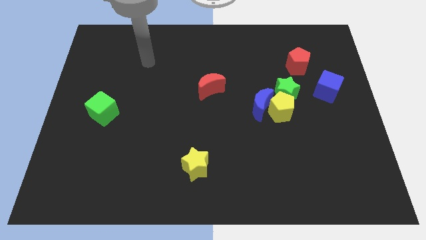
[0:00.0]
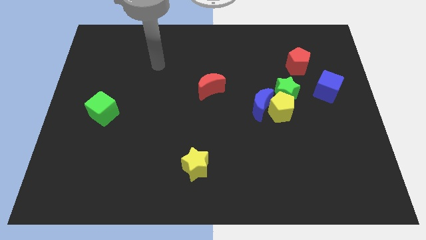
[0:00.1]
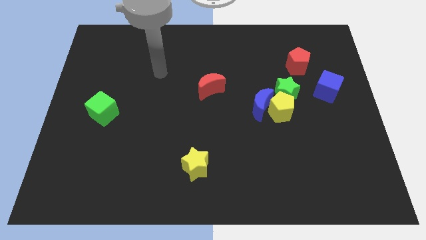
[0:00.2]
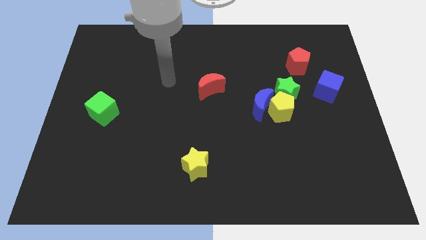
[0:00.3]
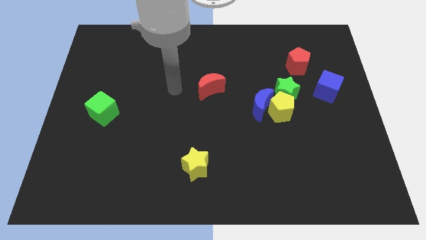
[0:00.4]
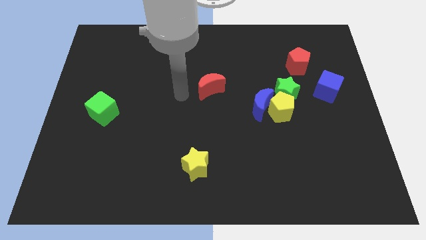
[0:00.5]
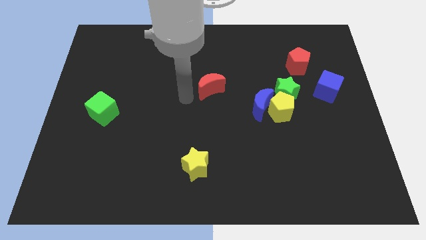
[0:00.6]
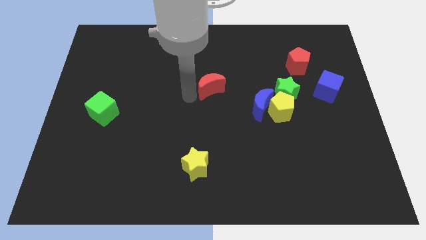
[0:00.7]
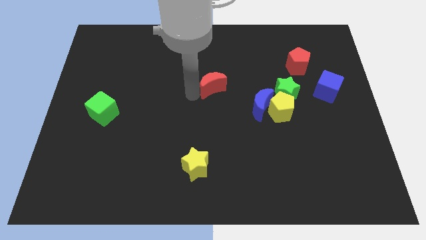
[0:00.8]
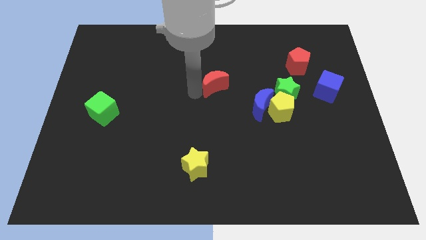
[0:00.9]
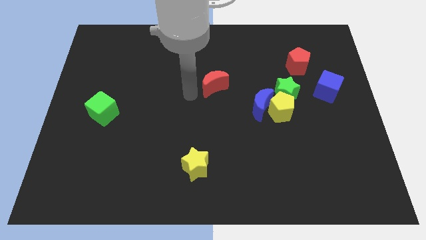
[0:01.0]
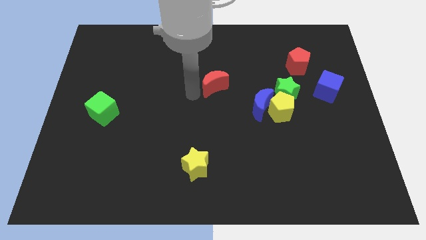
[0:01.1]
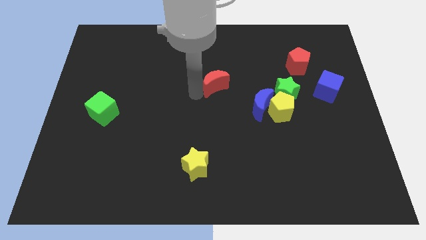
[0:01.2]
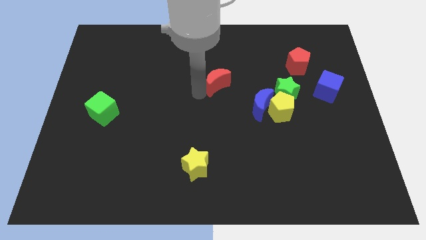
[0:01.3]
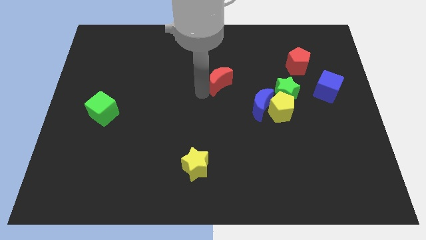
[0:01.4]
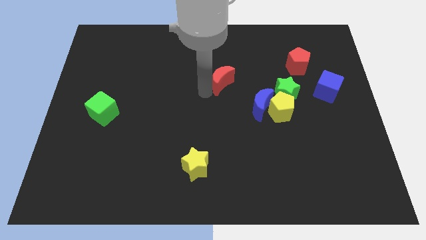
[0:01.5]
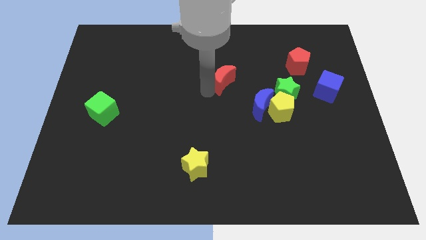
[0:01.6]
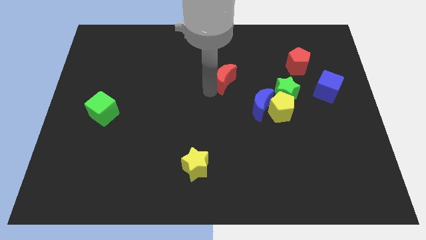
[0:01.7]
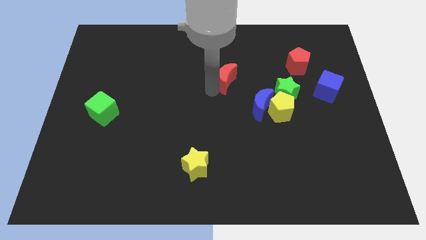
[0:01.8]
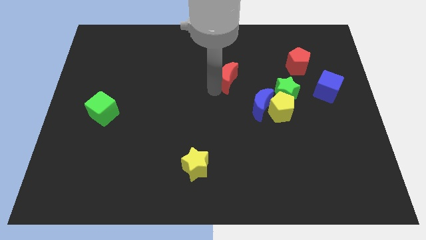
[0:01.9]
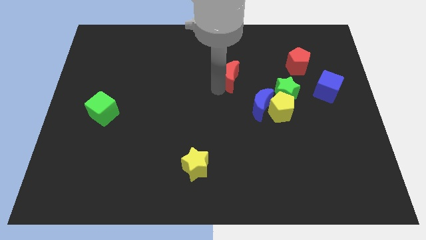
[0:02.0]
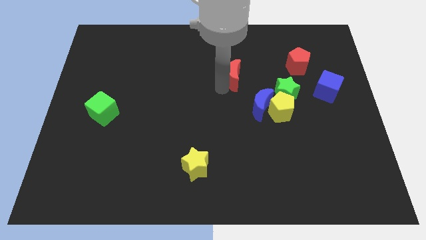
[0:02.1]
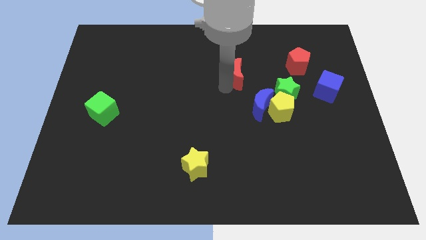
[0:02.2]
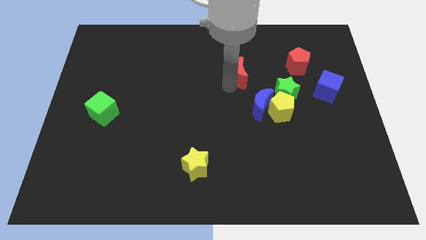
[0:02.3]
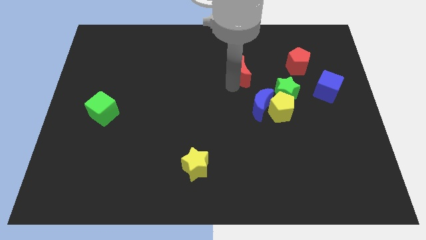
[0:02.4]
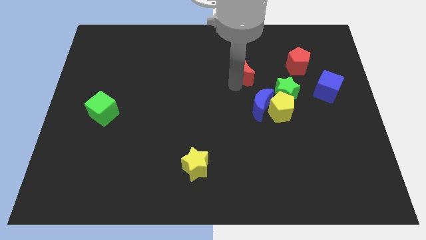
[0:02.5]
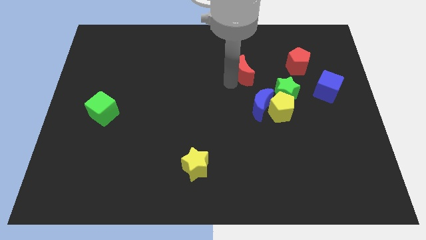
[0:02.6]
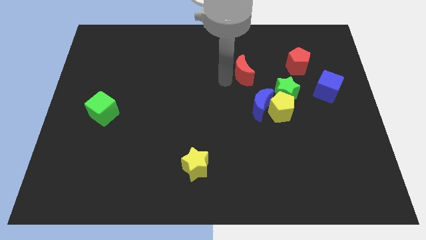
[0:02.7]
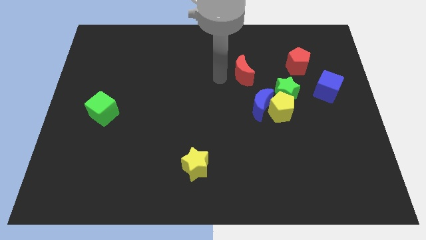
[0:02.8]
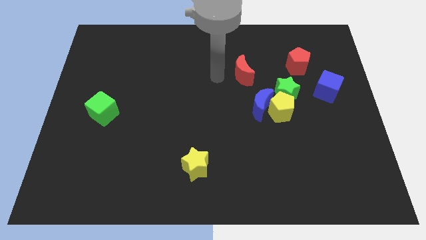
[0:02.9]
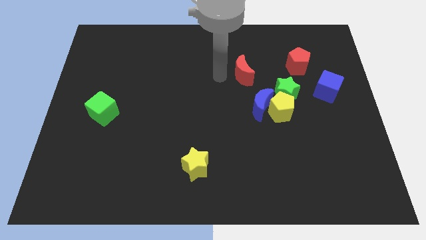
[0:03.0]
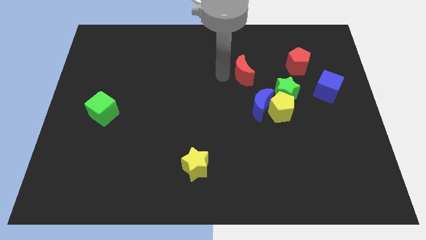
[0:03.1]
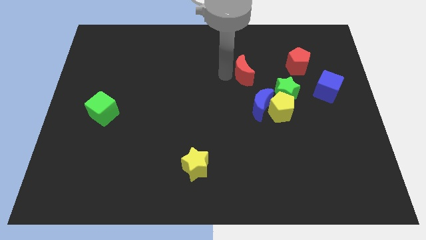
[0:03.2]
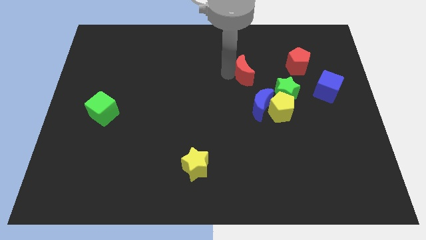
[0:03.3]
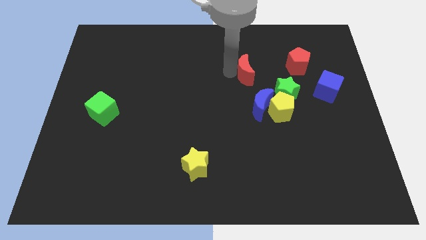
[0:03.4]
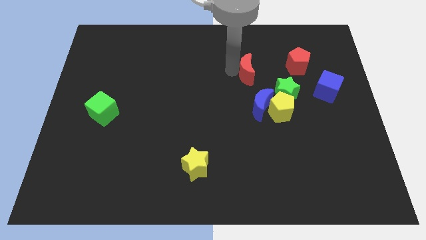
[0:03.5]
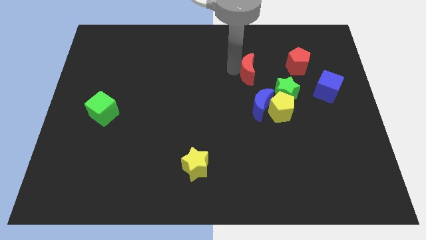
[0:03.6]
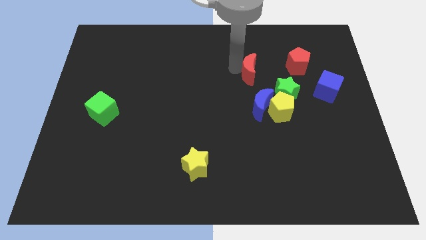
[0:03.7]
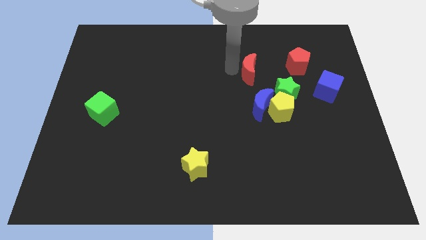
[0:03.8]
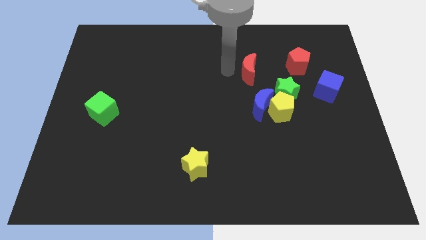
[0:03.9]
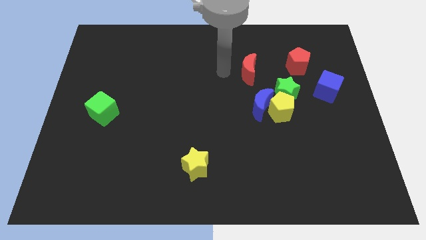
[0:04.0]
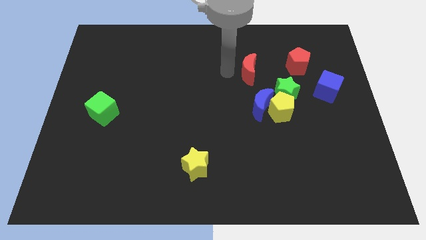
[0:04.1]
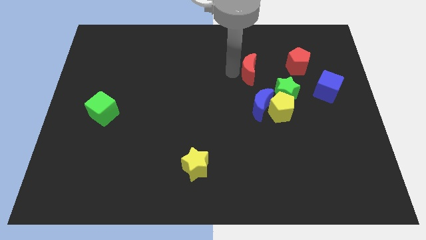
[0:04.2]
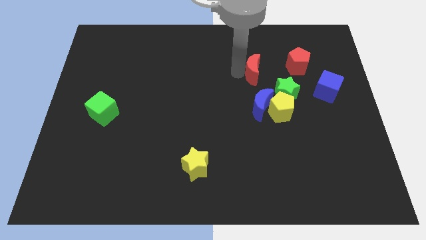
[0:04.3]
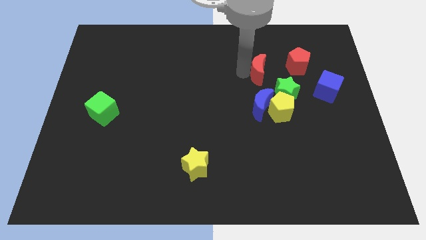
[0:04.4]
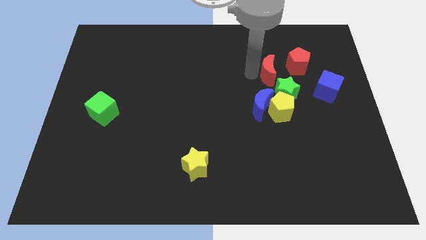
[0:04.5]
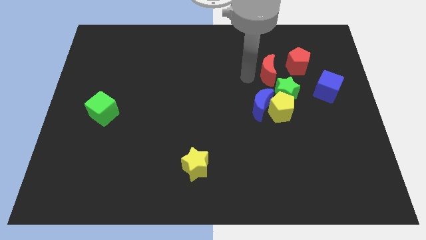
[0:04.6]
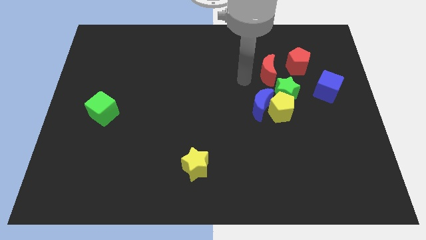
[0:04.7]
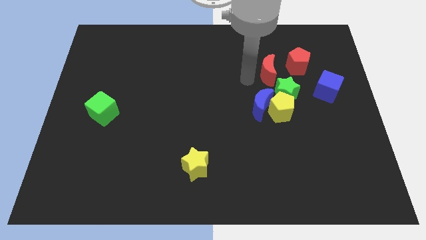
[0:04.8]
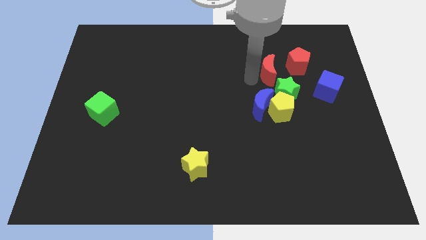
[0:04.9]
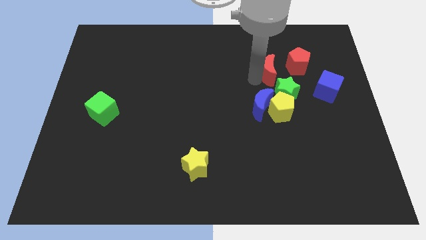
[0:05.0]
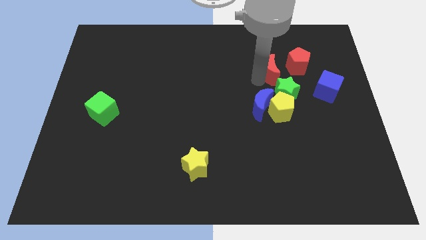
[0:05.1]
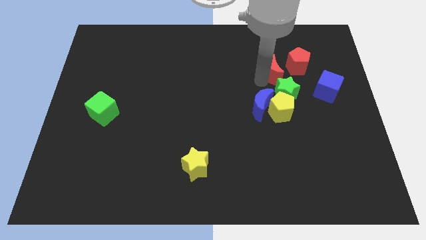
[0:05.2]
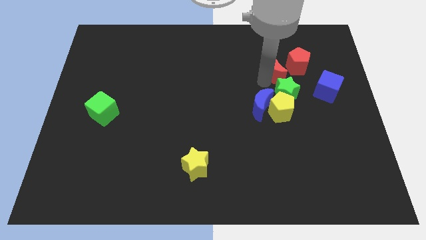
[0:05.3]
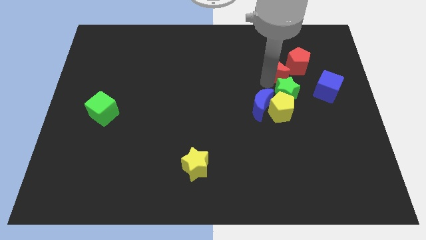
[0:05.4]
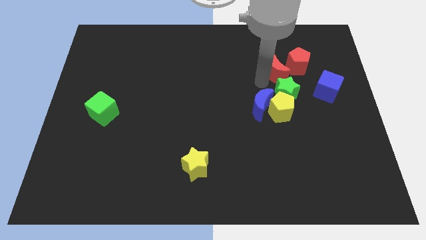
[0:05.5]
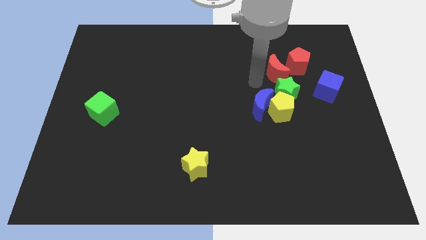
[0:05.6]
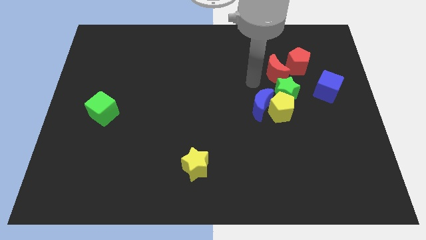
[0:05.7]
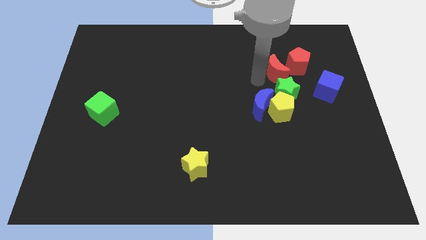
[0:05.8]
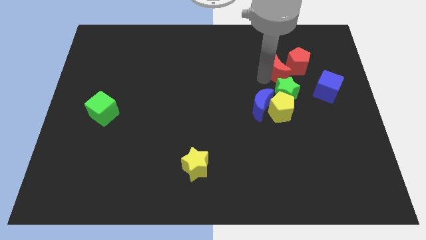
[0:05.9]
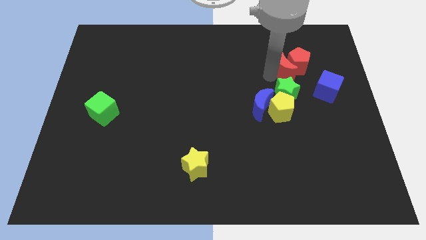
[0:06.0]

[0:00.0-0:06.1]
push the red moon next to the red pentagon

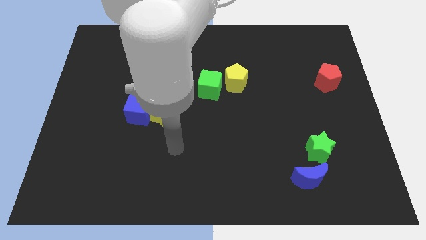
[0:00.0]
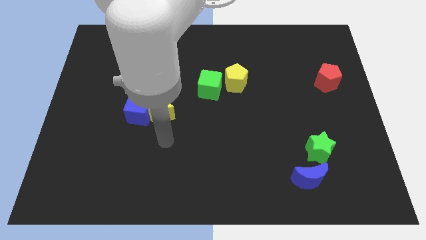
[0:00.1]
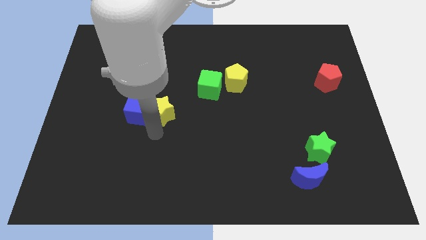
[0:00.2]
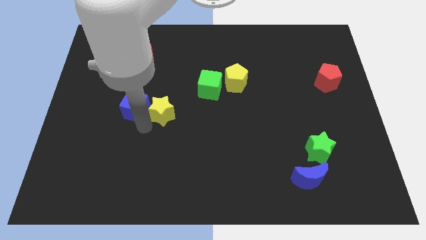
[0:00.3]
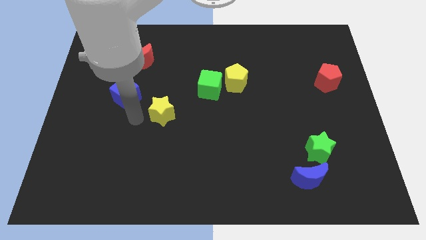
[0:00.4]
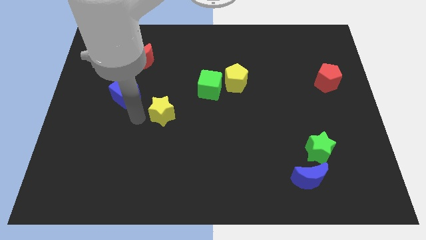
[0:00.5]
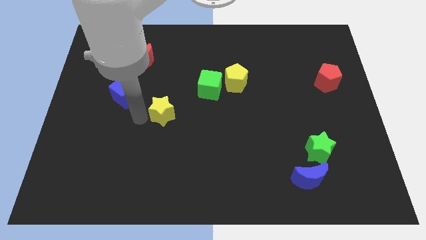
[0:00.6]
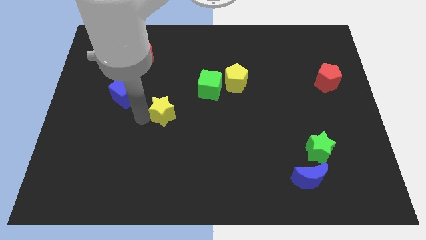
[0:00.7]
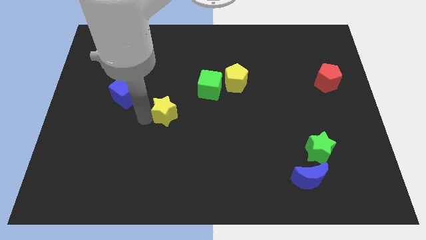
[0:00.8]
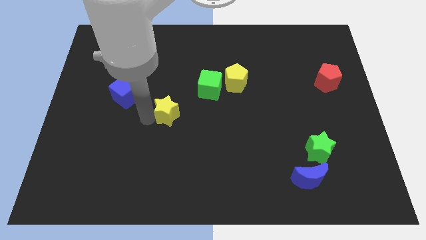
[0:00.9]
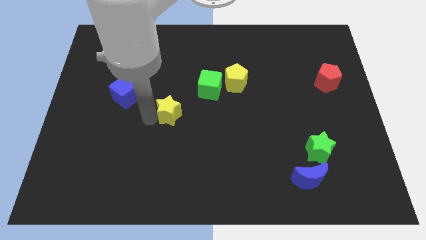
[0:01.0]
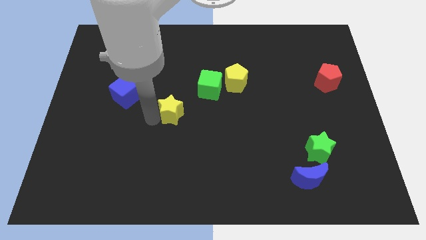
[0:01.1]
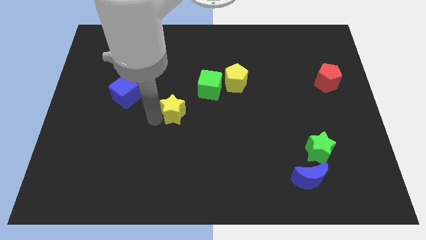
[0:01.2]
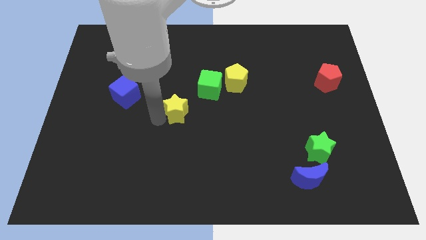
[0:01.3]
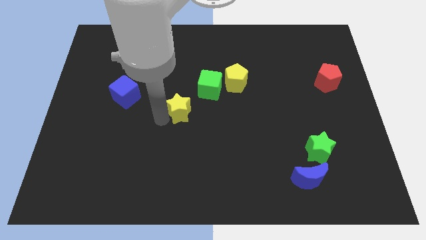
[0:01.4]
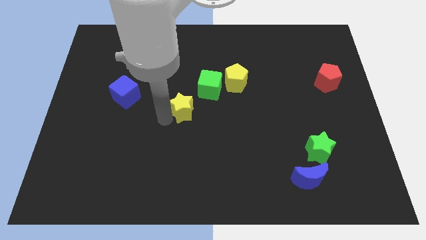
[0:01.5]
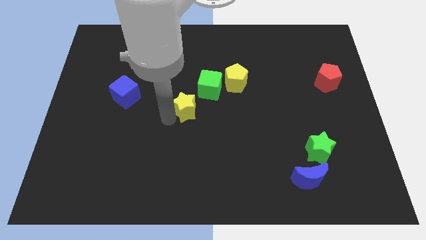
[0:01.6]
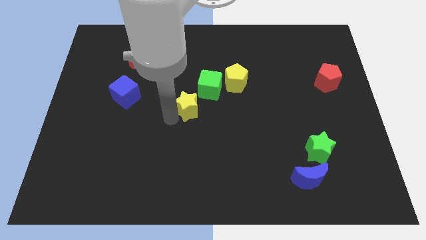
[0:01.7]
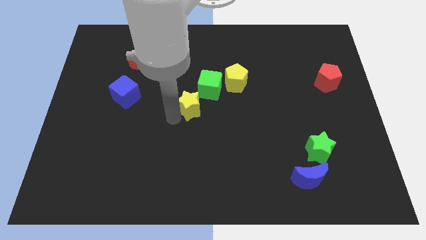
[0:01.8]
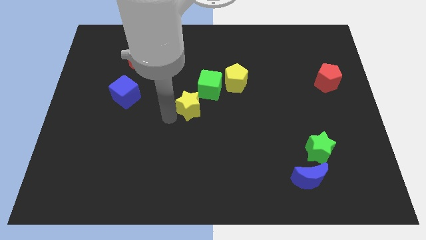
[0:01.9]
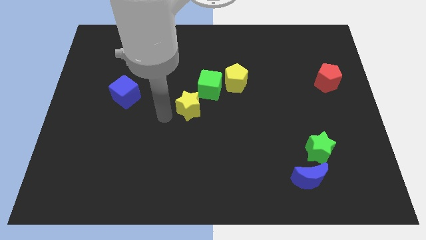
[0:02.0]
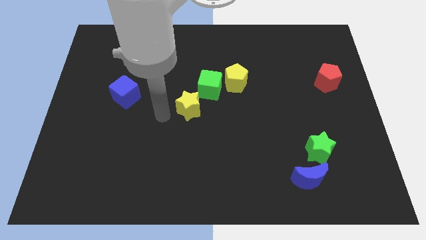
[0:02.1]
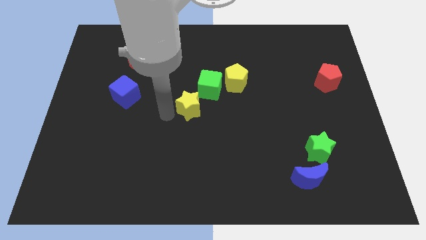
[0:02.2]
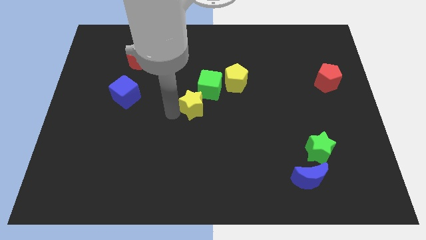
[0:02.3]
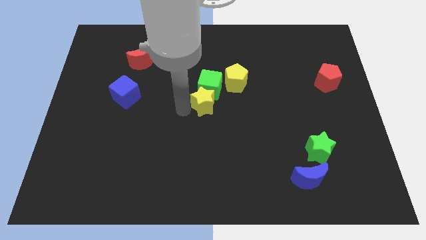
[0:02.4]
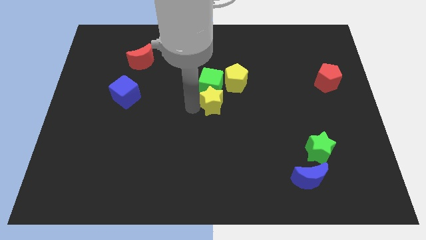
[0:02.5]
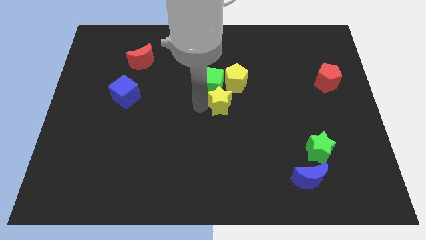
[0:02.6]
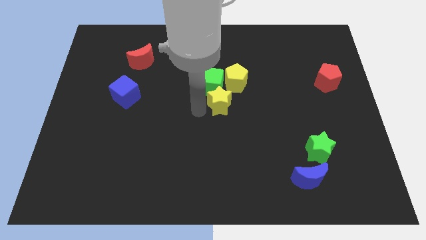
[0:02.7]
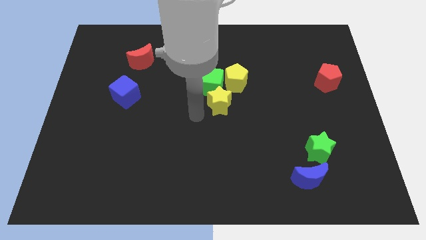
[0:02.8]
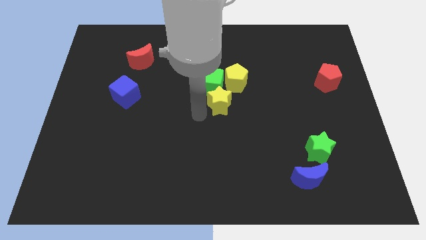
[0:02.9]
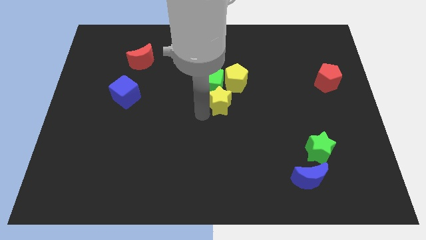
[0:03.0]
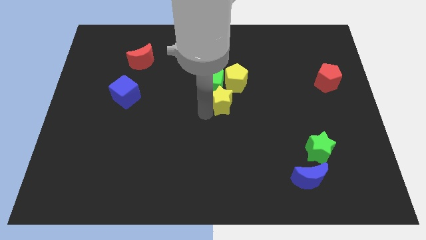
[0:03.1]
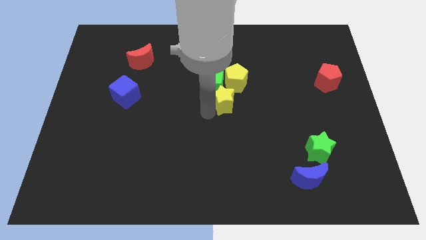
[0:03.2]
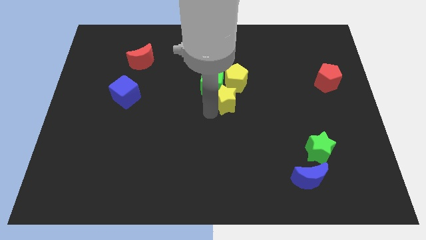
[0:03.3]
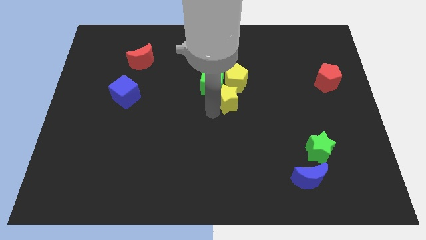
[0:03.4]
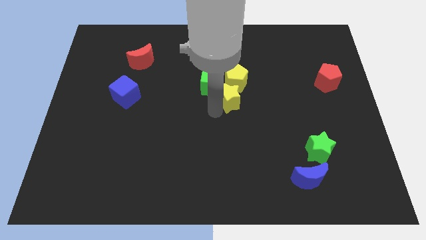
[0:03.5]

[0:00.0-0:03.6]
move the yellow star to the yellow pentagon
